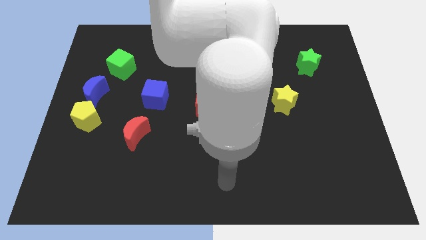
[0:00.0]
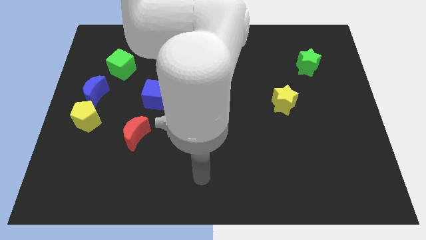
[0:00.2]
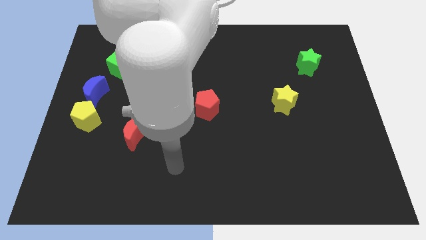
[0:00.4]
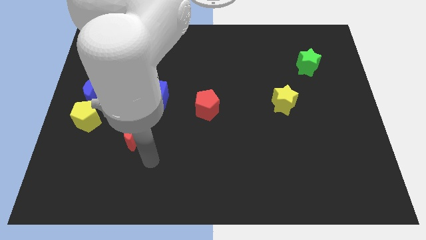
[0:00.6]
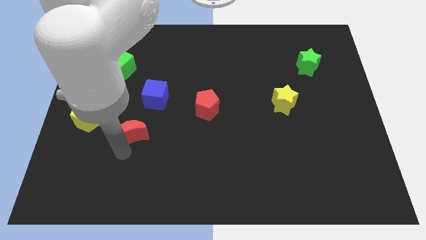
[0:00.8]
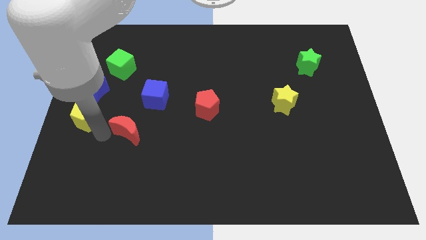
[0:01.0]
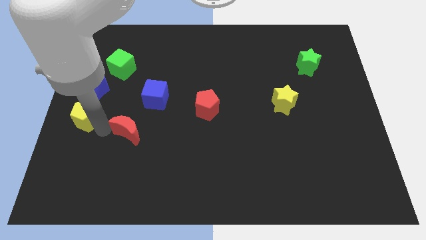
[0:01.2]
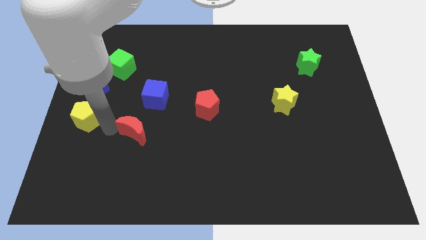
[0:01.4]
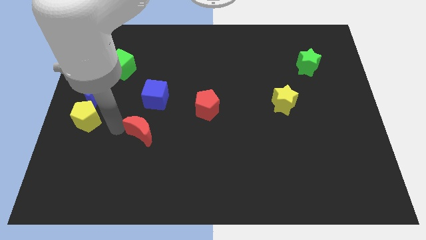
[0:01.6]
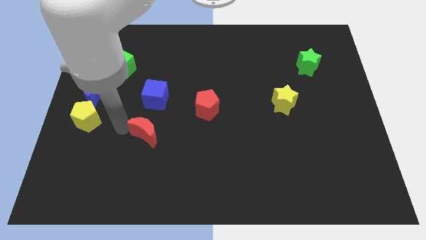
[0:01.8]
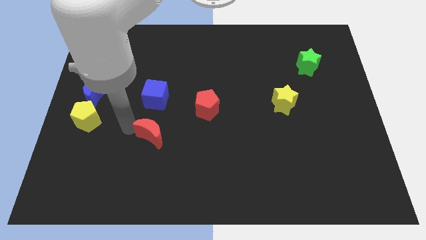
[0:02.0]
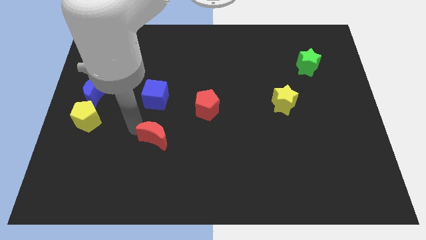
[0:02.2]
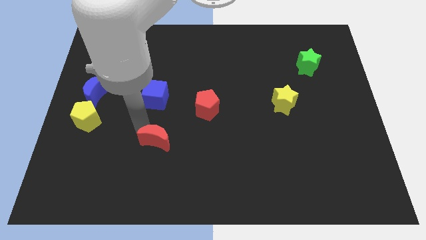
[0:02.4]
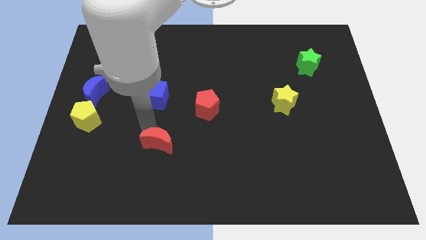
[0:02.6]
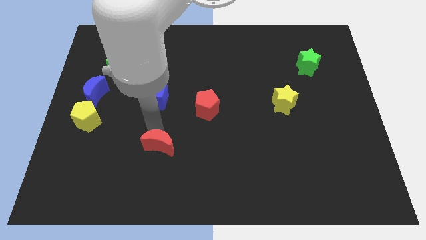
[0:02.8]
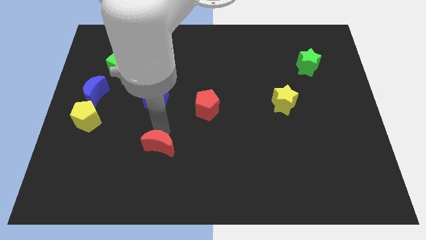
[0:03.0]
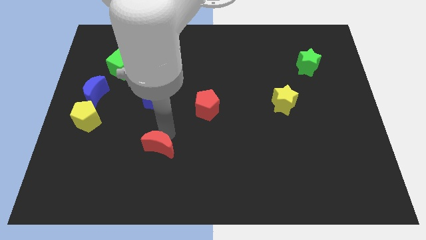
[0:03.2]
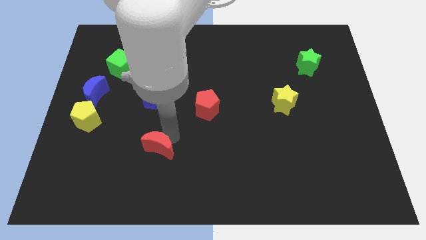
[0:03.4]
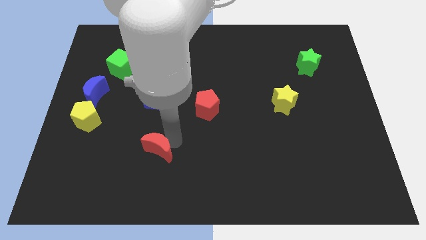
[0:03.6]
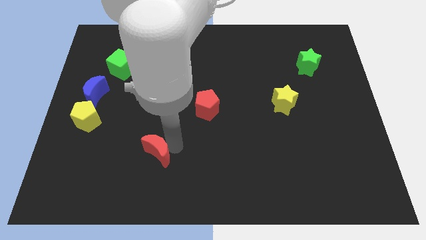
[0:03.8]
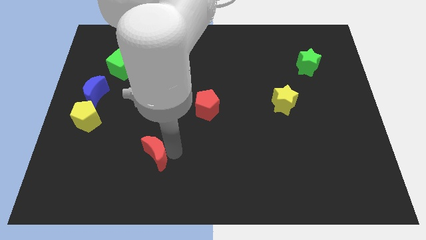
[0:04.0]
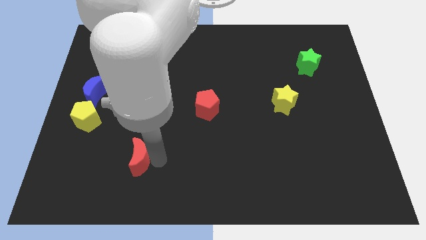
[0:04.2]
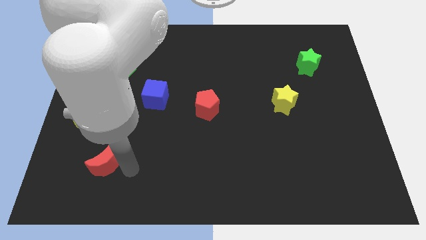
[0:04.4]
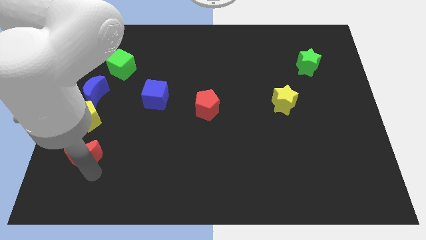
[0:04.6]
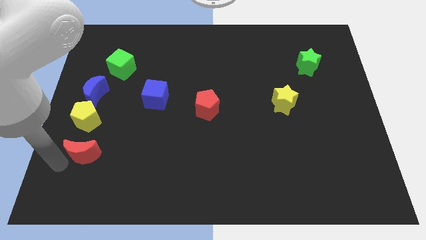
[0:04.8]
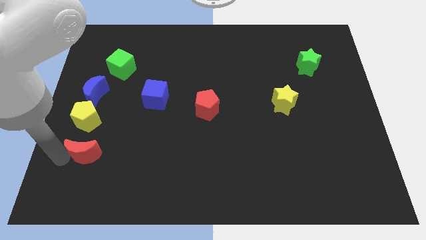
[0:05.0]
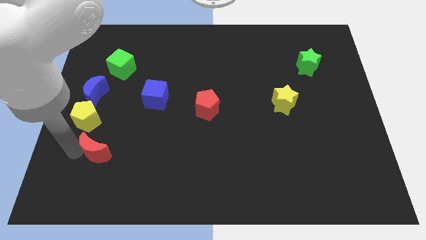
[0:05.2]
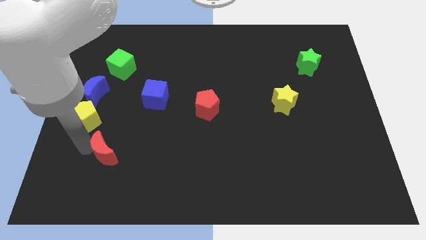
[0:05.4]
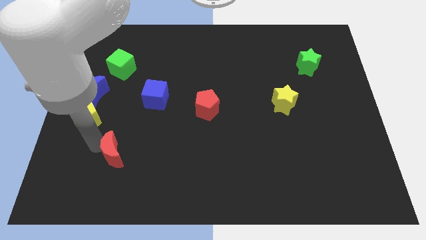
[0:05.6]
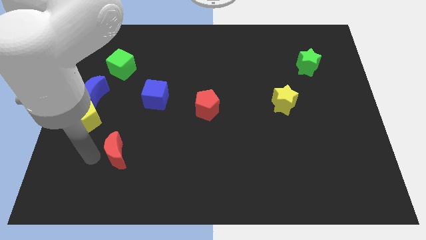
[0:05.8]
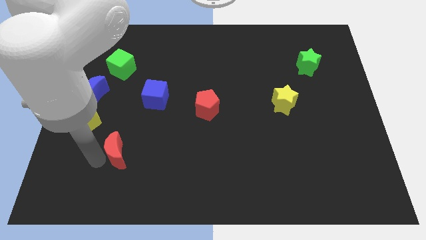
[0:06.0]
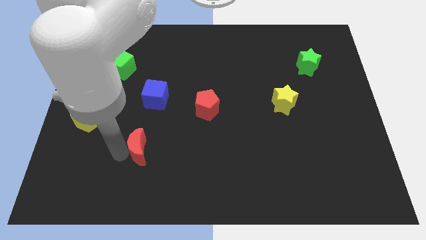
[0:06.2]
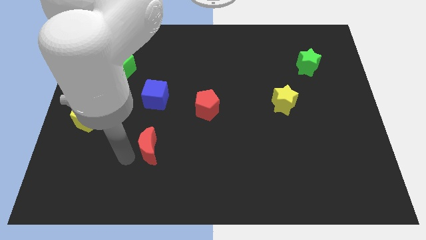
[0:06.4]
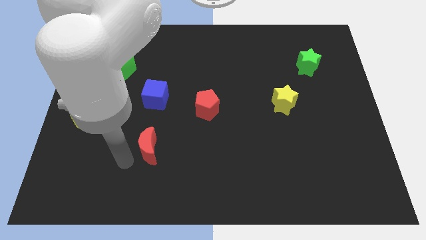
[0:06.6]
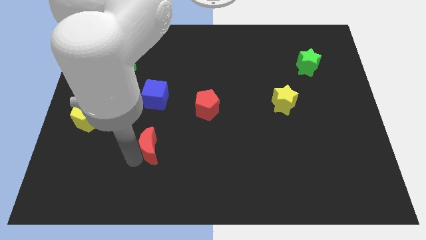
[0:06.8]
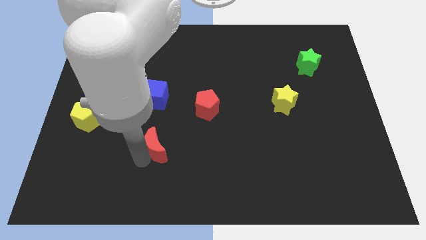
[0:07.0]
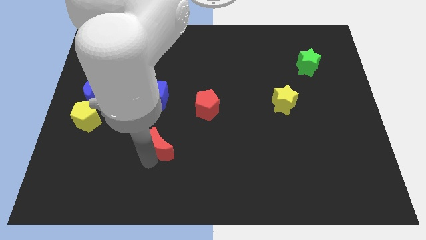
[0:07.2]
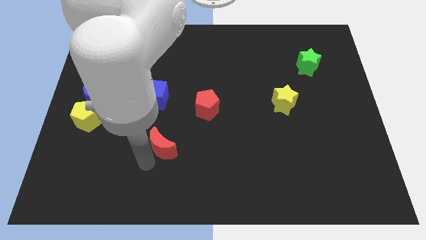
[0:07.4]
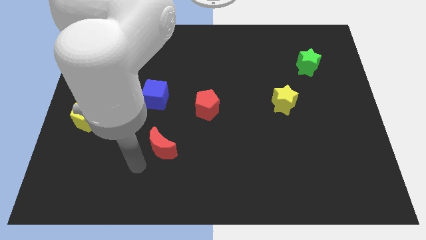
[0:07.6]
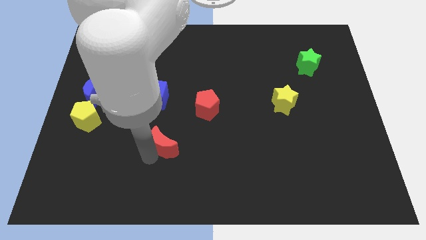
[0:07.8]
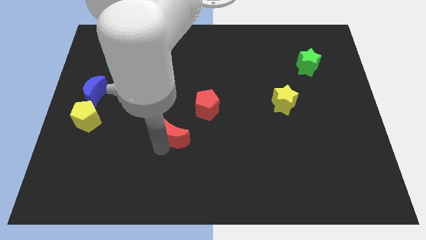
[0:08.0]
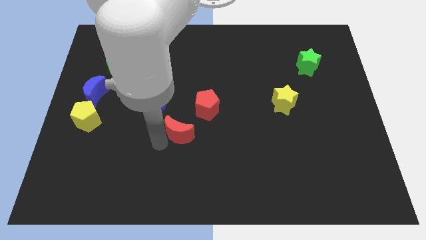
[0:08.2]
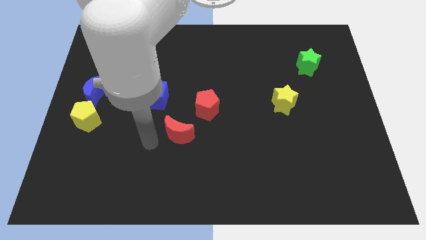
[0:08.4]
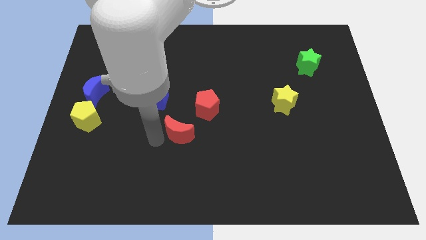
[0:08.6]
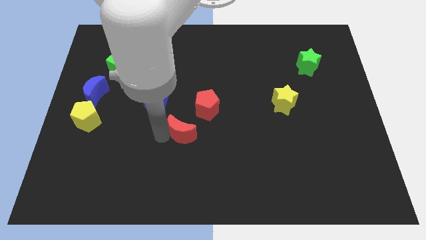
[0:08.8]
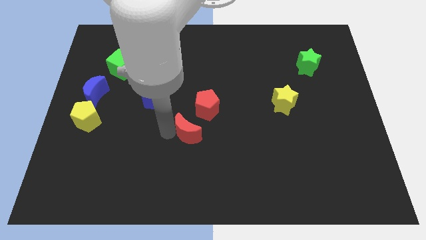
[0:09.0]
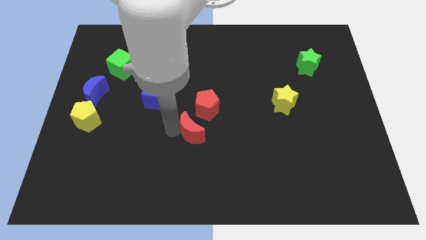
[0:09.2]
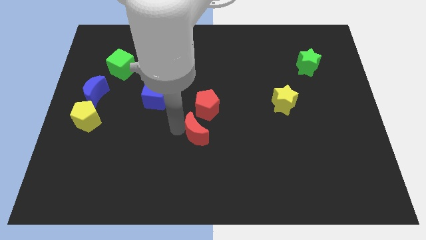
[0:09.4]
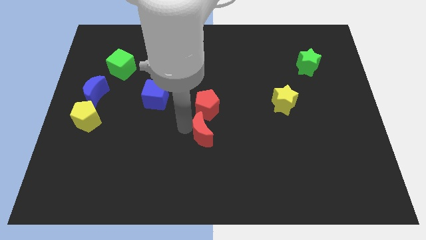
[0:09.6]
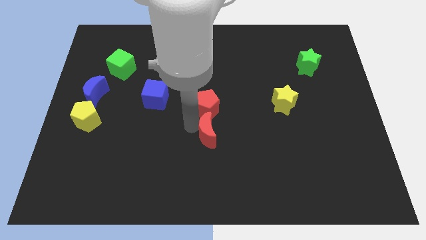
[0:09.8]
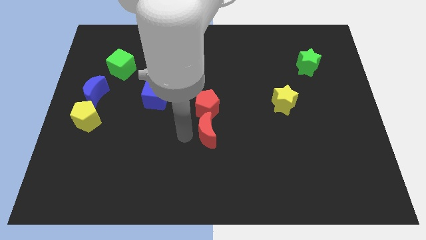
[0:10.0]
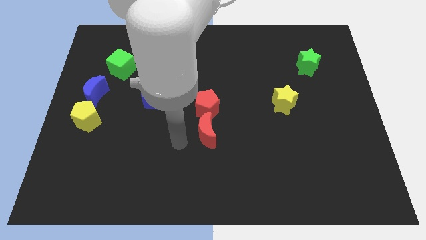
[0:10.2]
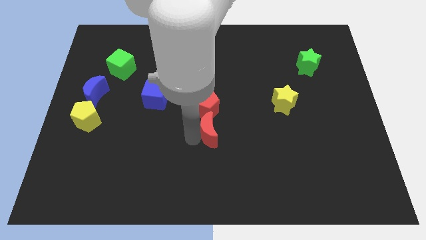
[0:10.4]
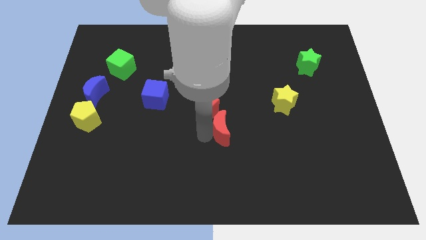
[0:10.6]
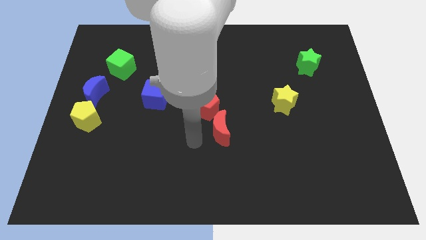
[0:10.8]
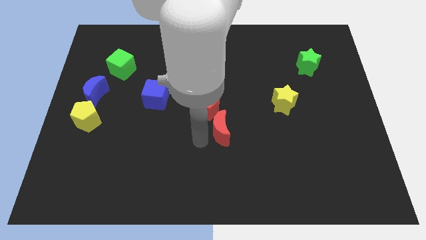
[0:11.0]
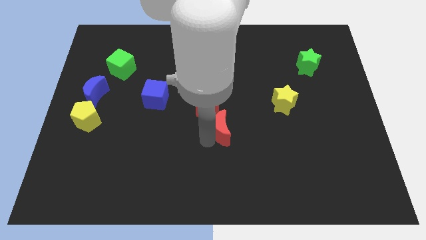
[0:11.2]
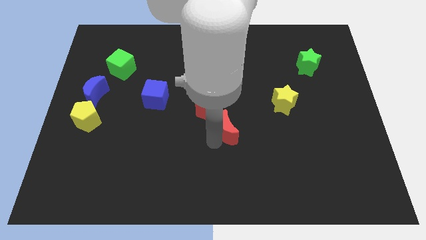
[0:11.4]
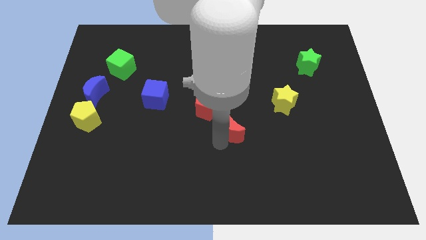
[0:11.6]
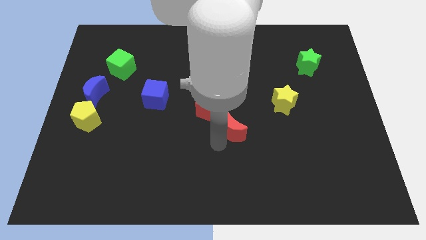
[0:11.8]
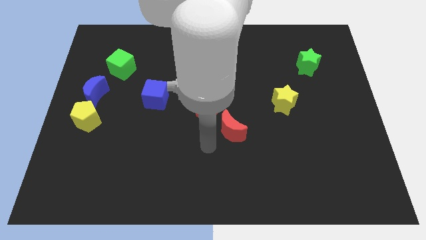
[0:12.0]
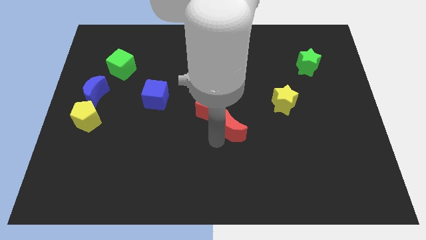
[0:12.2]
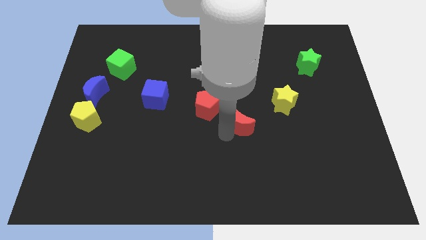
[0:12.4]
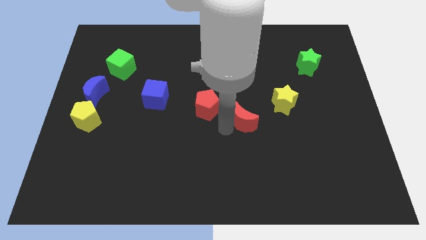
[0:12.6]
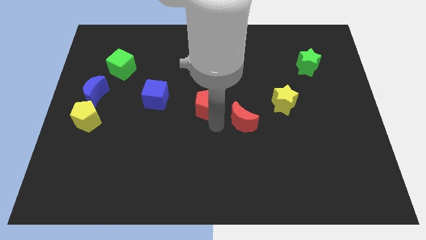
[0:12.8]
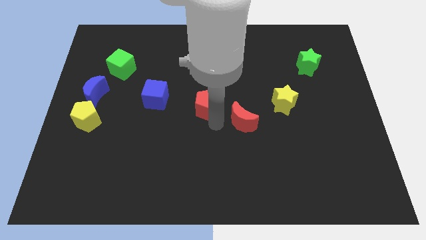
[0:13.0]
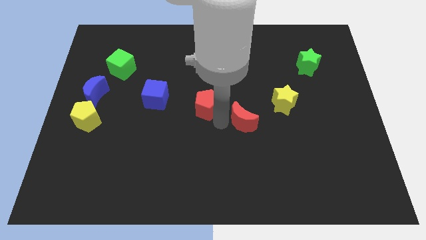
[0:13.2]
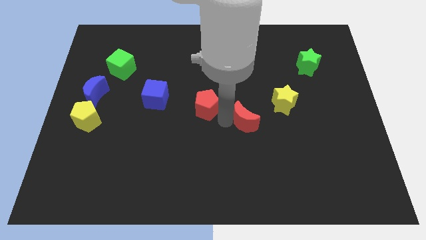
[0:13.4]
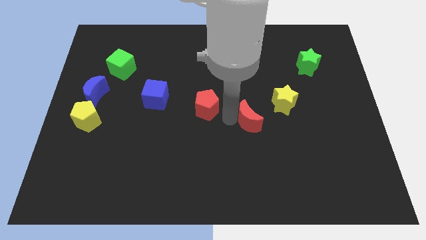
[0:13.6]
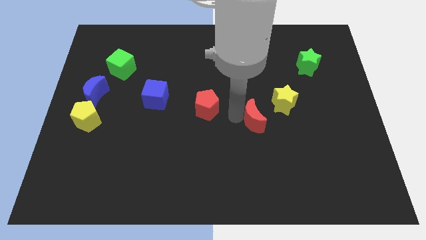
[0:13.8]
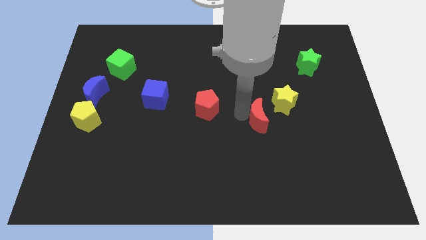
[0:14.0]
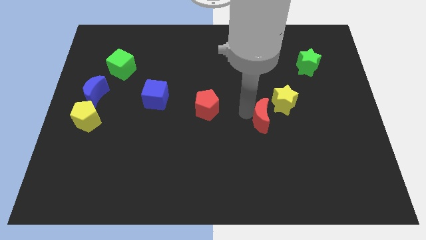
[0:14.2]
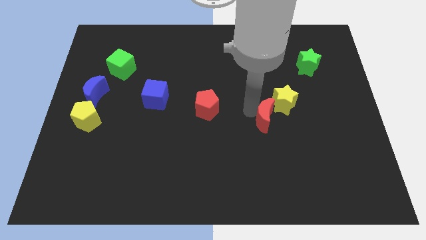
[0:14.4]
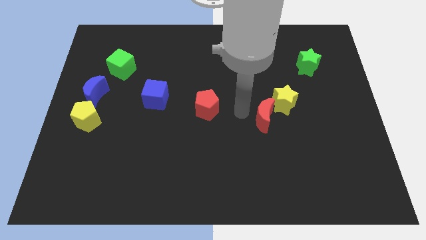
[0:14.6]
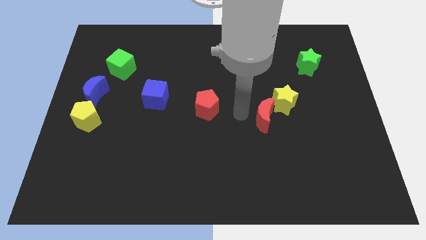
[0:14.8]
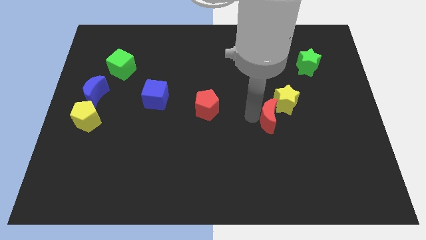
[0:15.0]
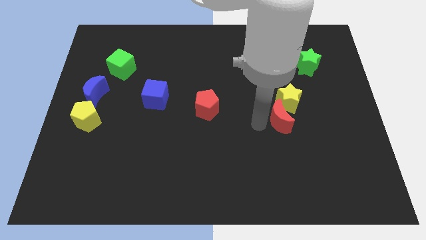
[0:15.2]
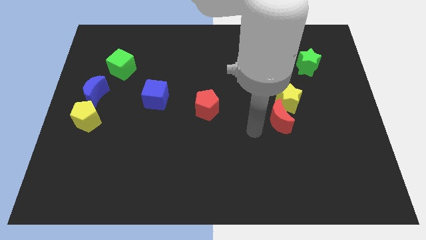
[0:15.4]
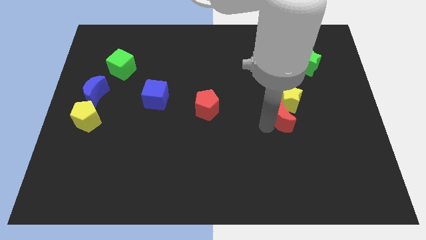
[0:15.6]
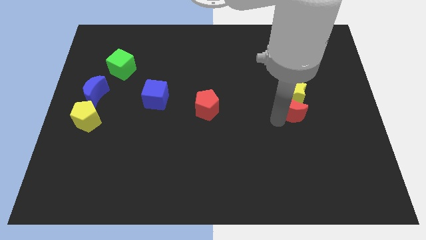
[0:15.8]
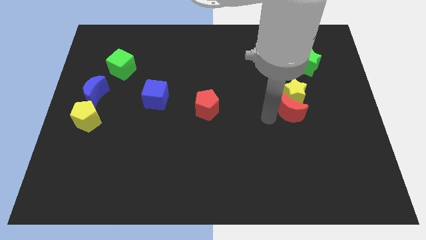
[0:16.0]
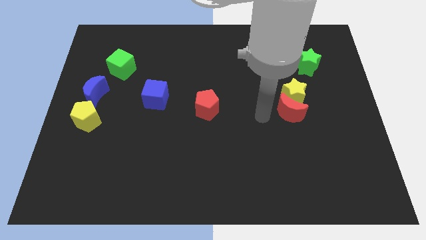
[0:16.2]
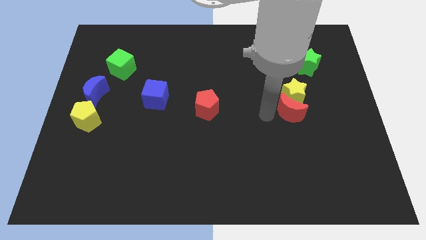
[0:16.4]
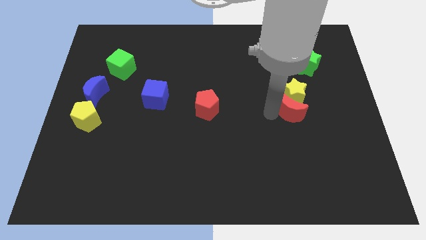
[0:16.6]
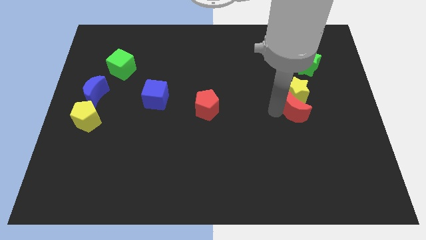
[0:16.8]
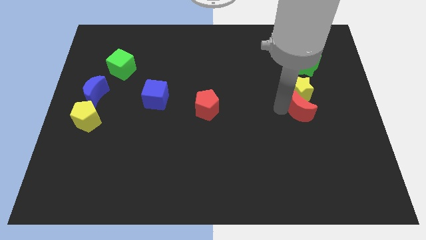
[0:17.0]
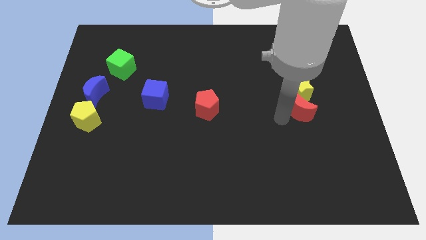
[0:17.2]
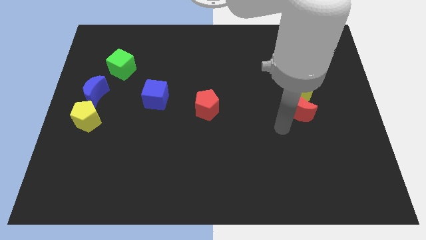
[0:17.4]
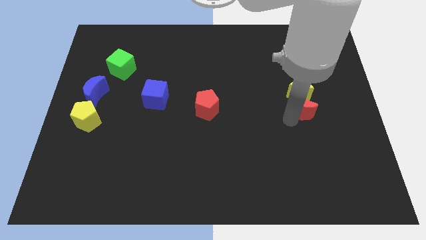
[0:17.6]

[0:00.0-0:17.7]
slide the red moon to the bottom side of the green star
